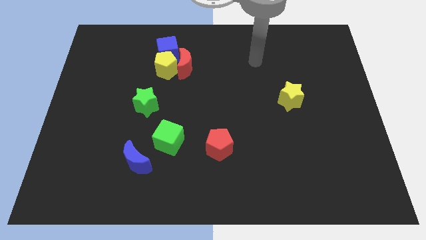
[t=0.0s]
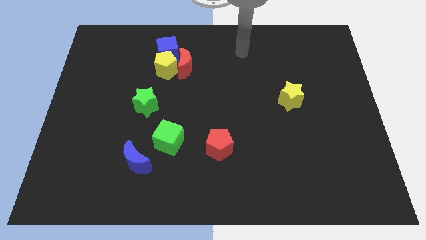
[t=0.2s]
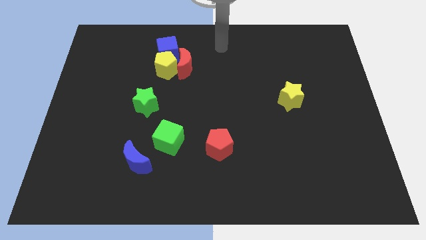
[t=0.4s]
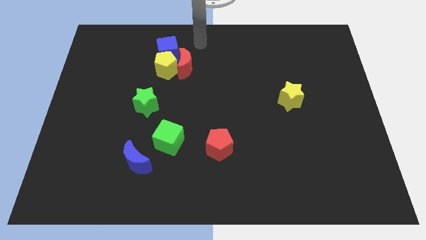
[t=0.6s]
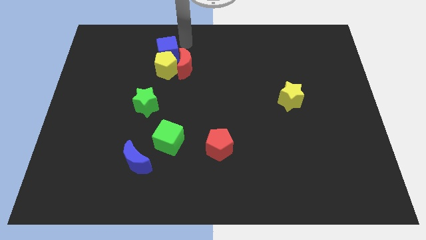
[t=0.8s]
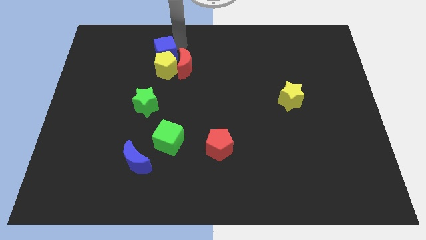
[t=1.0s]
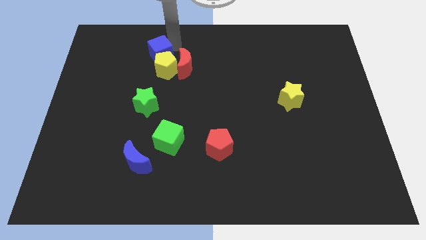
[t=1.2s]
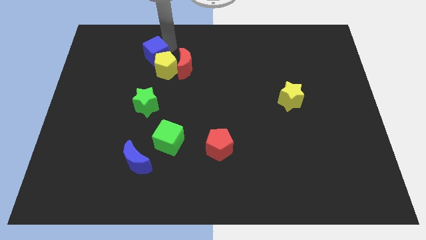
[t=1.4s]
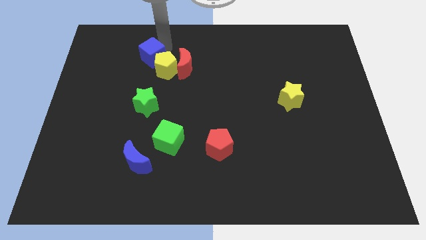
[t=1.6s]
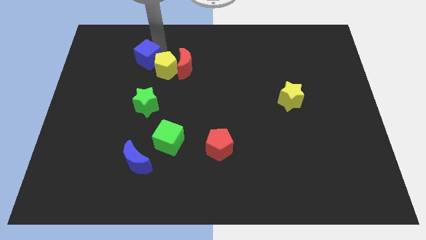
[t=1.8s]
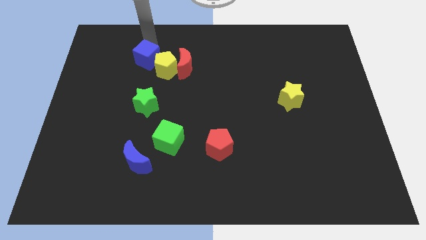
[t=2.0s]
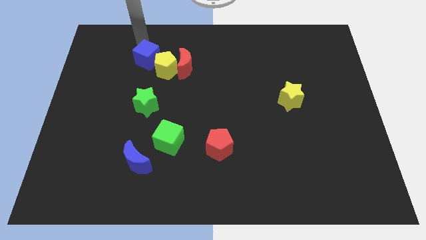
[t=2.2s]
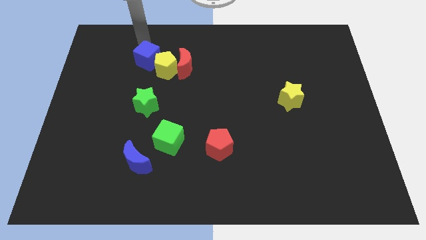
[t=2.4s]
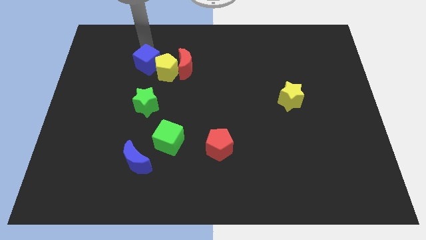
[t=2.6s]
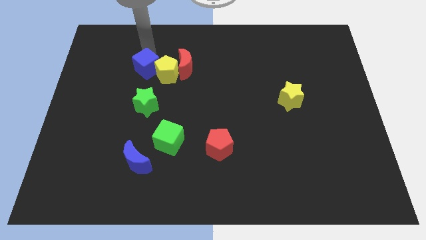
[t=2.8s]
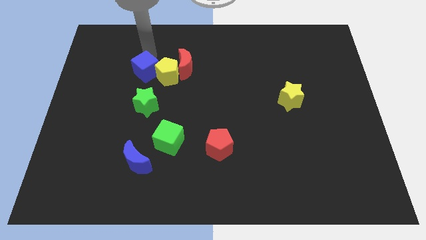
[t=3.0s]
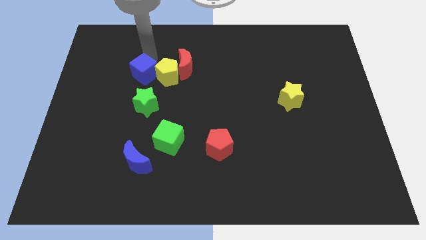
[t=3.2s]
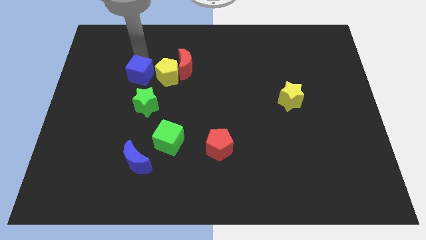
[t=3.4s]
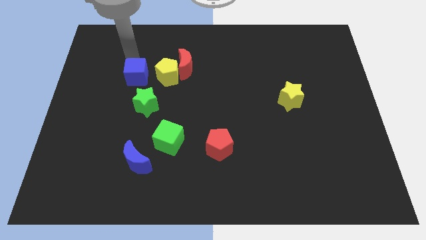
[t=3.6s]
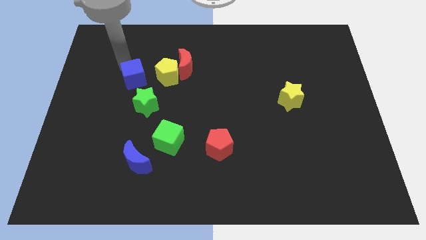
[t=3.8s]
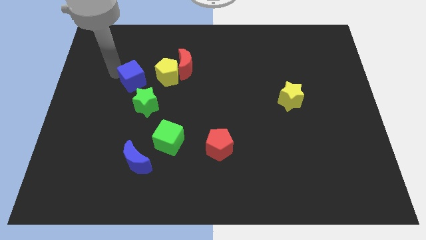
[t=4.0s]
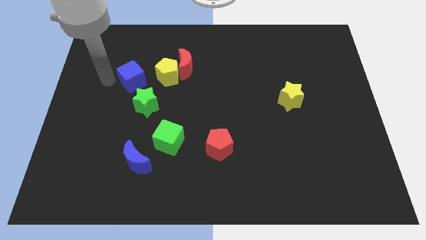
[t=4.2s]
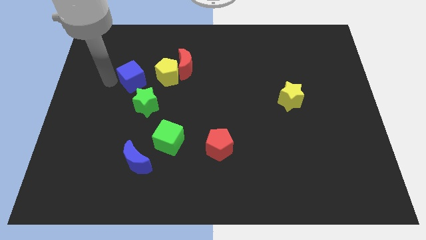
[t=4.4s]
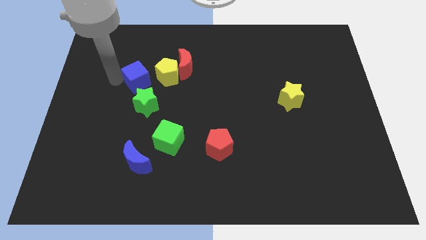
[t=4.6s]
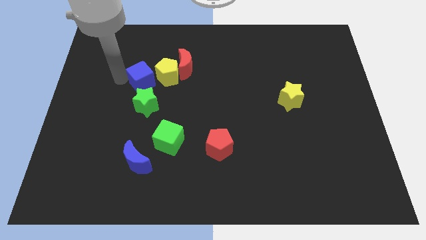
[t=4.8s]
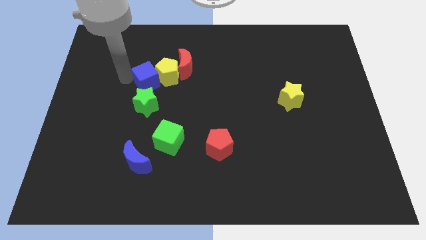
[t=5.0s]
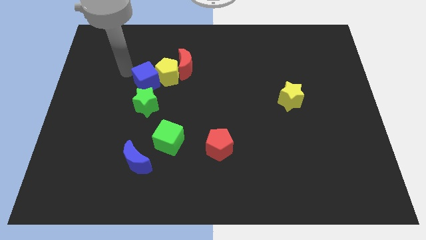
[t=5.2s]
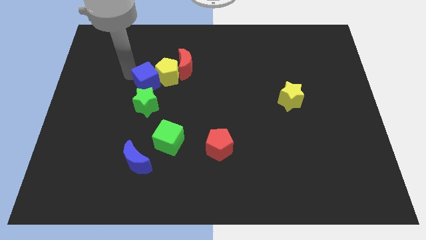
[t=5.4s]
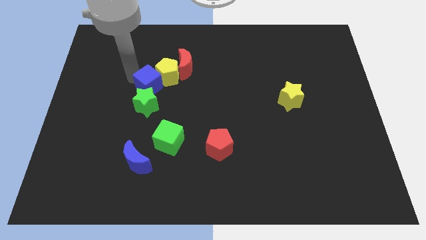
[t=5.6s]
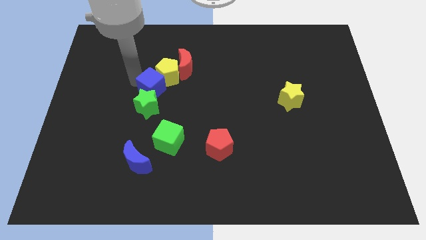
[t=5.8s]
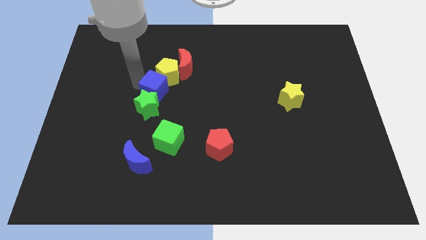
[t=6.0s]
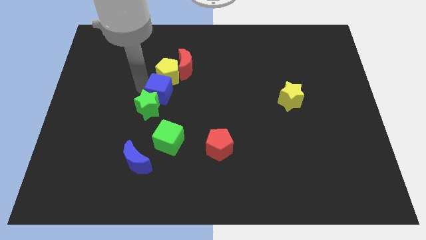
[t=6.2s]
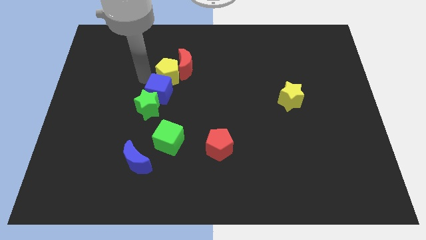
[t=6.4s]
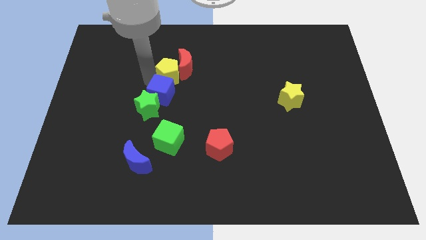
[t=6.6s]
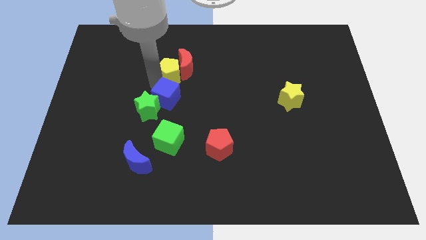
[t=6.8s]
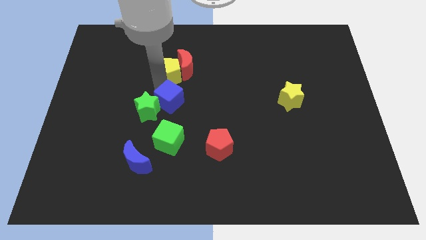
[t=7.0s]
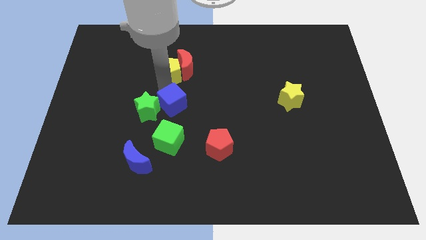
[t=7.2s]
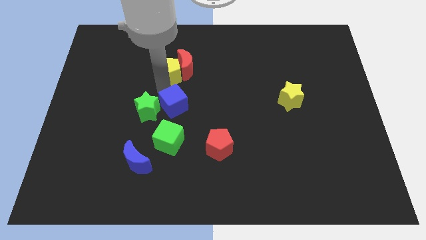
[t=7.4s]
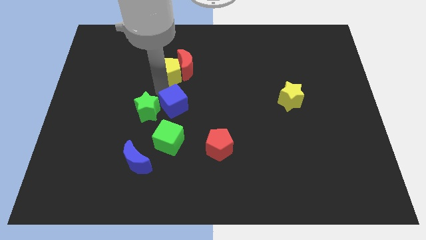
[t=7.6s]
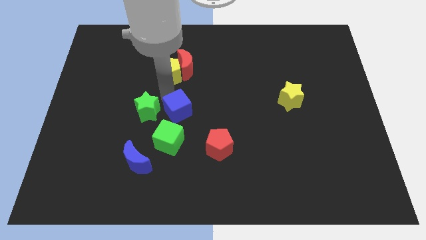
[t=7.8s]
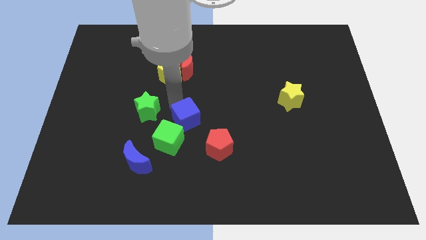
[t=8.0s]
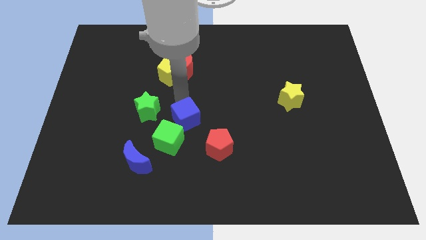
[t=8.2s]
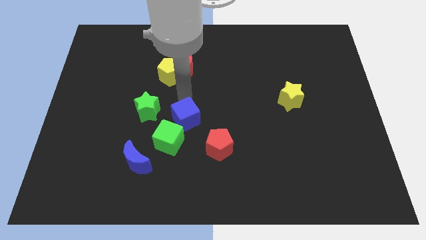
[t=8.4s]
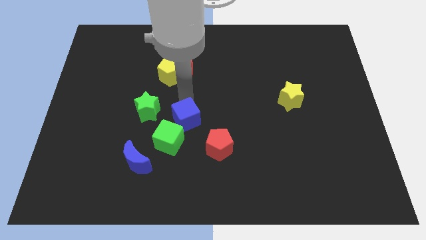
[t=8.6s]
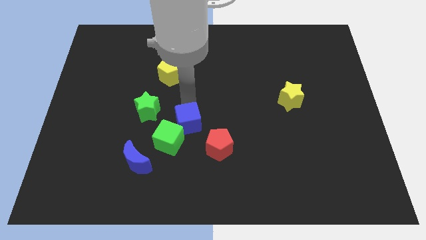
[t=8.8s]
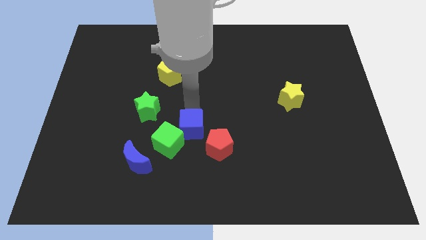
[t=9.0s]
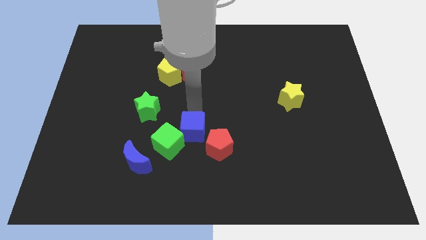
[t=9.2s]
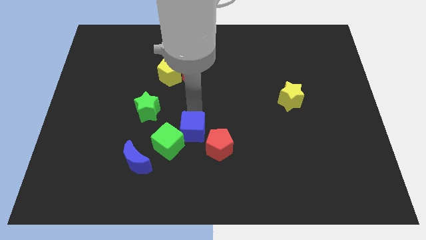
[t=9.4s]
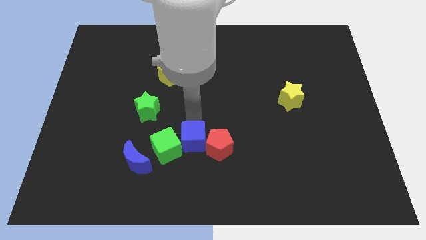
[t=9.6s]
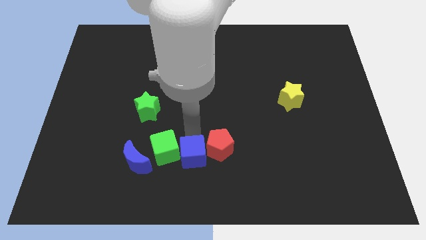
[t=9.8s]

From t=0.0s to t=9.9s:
push the blue cube to the bottom side
